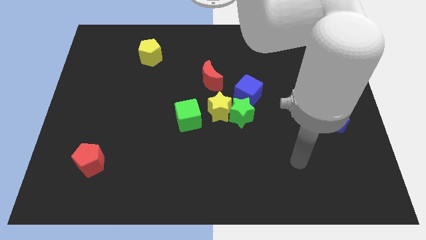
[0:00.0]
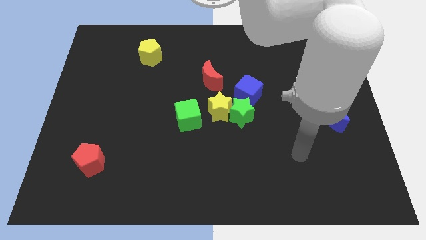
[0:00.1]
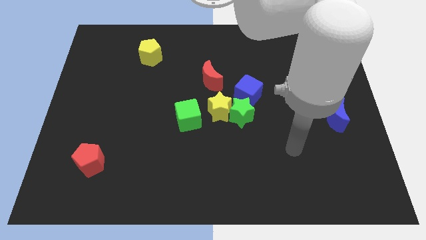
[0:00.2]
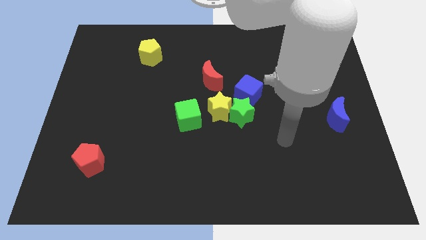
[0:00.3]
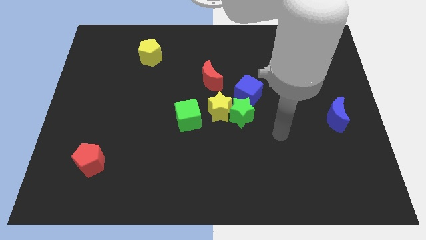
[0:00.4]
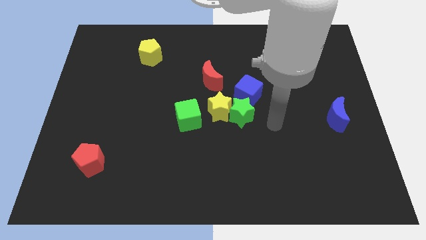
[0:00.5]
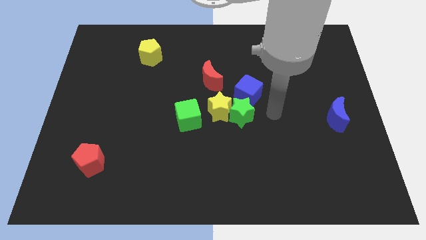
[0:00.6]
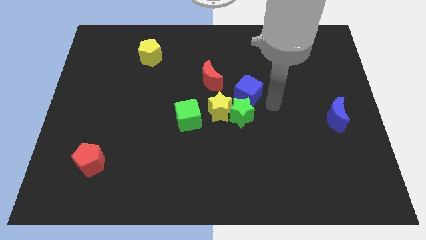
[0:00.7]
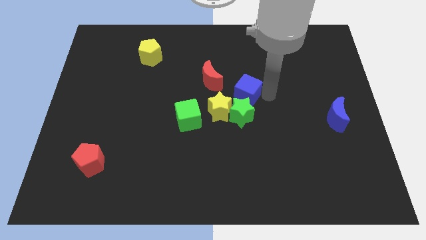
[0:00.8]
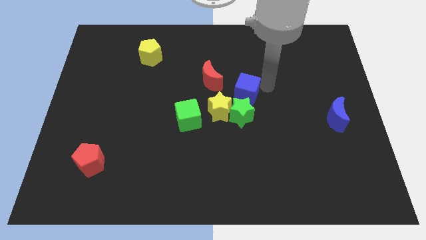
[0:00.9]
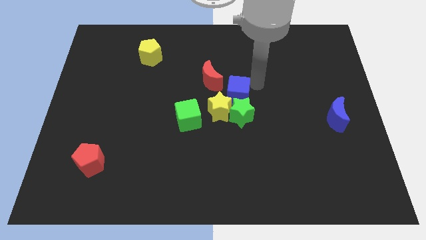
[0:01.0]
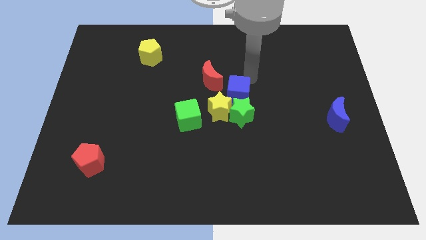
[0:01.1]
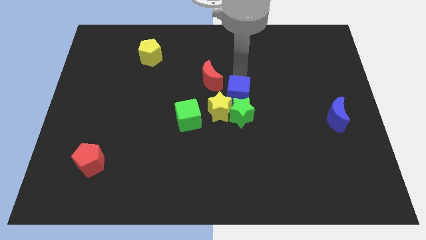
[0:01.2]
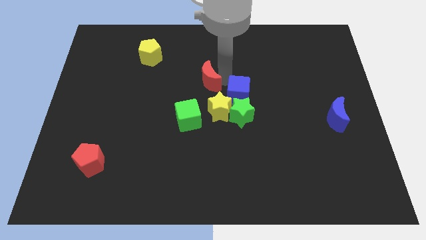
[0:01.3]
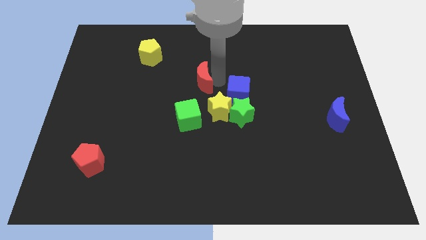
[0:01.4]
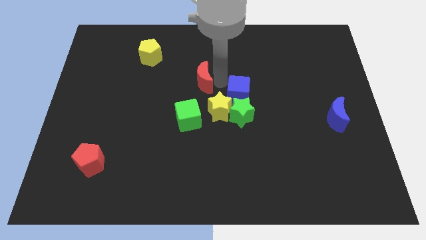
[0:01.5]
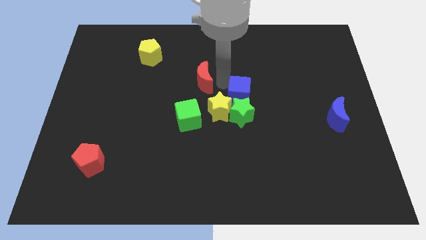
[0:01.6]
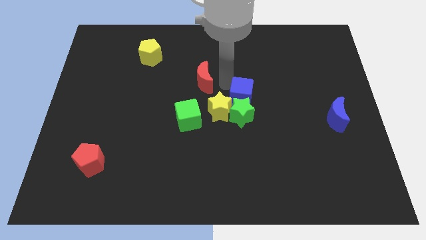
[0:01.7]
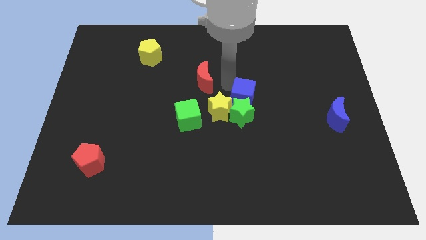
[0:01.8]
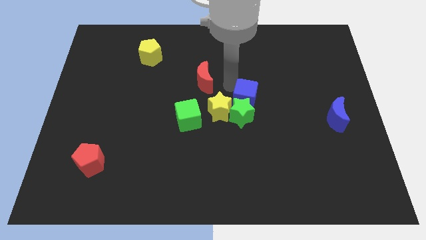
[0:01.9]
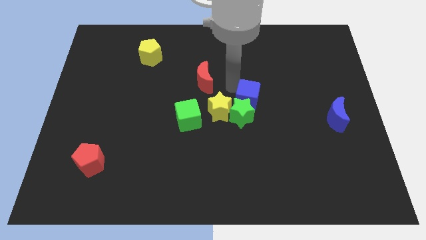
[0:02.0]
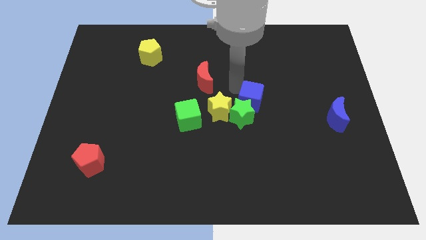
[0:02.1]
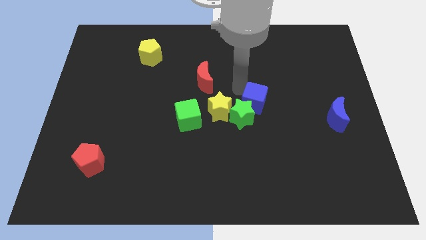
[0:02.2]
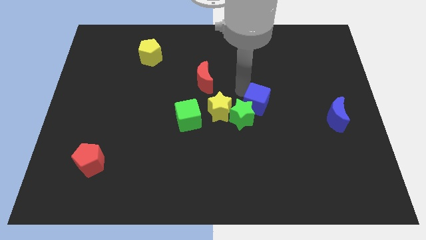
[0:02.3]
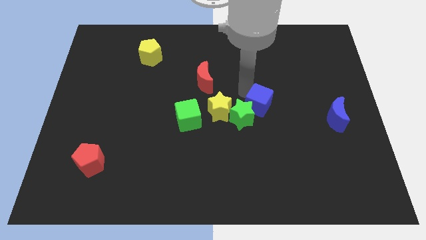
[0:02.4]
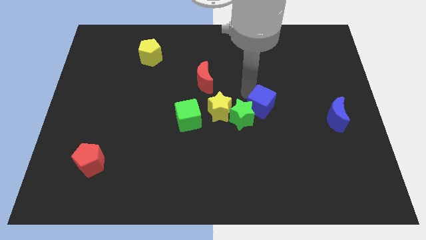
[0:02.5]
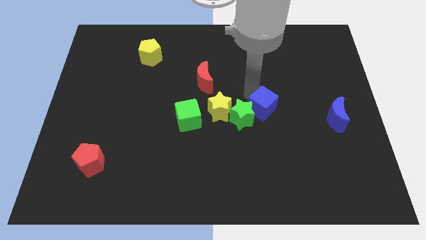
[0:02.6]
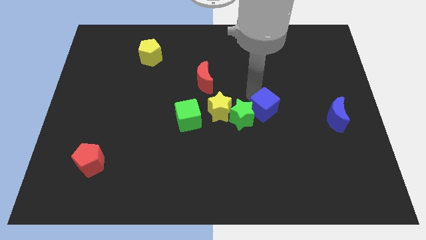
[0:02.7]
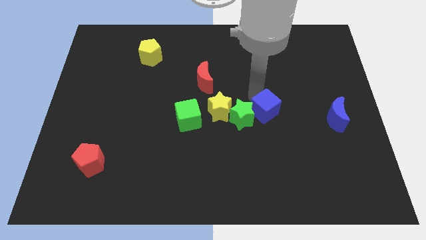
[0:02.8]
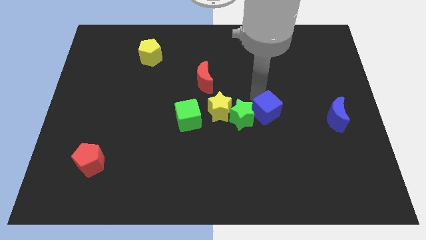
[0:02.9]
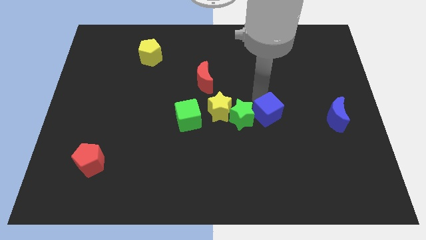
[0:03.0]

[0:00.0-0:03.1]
push the blue cube a bit downwards and to the right

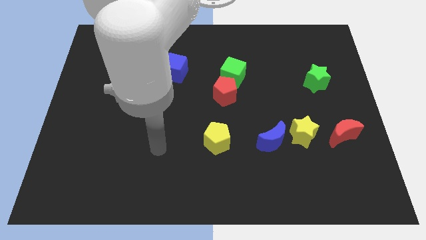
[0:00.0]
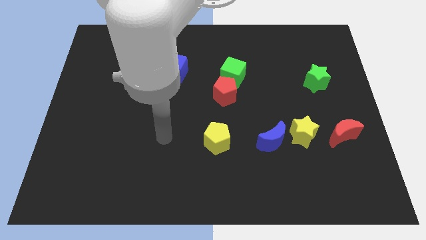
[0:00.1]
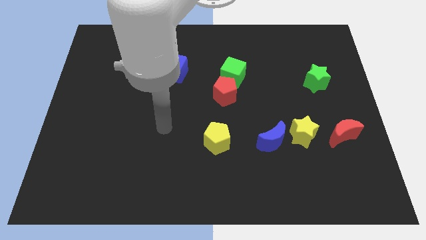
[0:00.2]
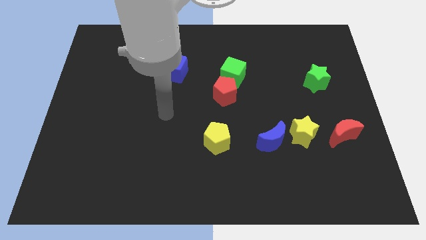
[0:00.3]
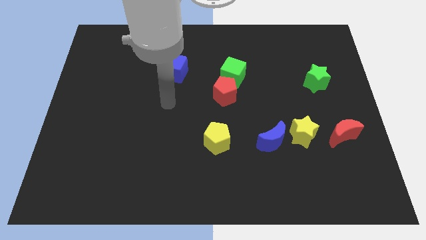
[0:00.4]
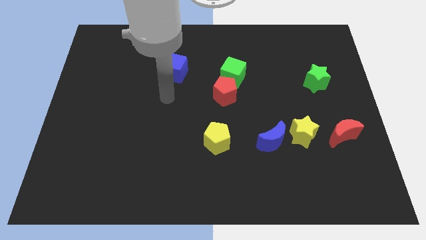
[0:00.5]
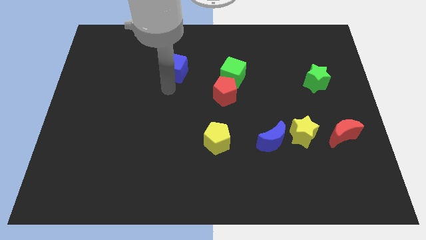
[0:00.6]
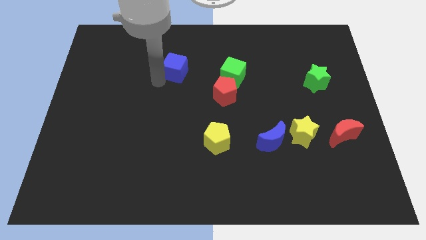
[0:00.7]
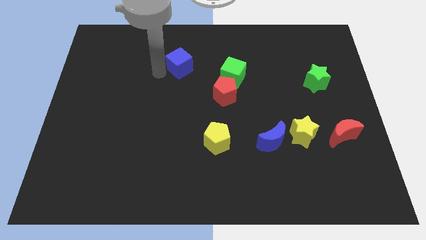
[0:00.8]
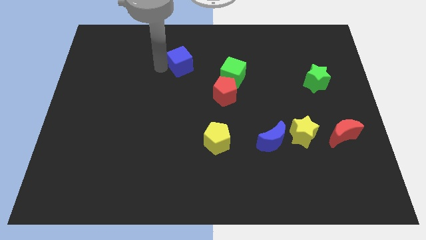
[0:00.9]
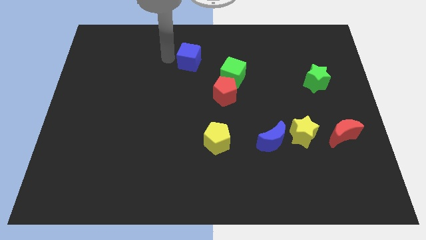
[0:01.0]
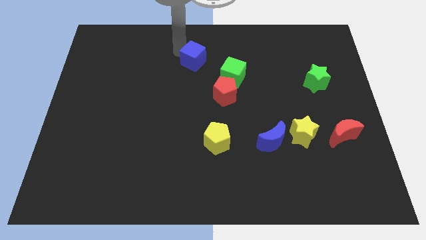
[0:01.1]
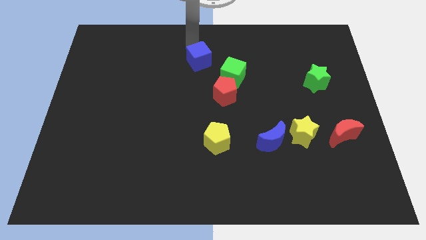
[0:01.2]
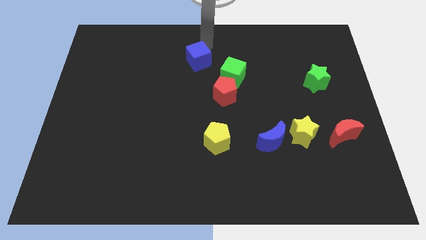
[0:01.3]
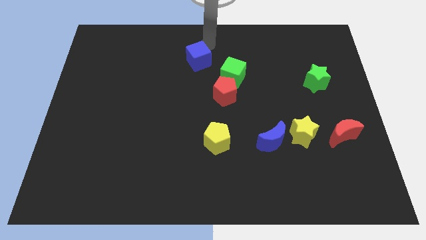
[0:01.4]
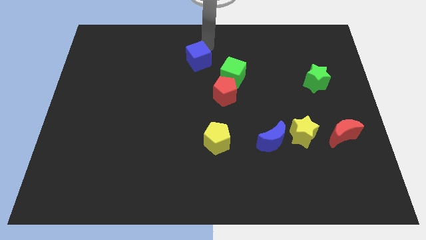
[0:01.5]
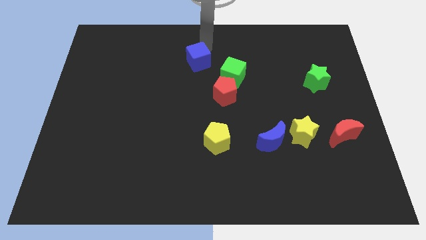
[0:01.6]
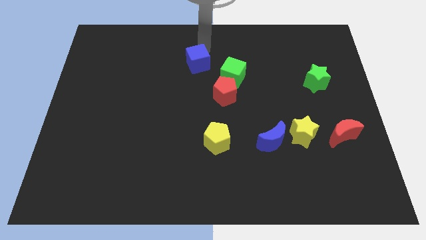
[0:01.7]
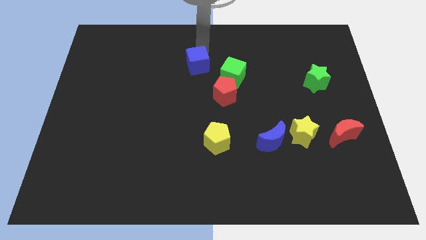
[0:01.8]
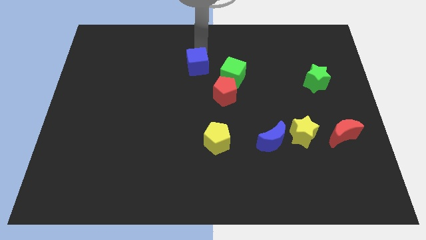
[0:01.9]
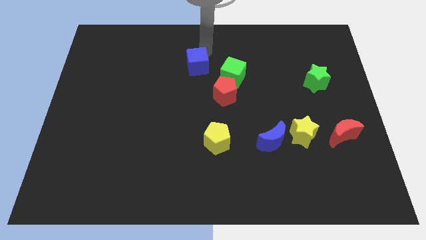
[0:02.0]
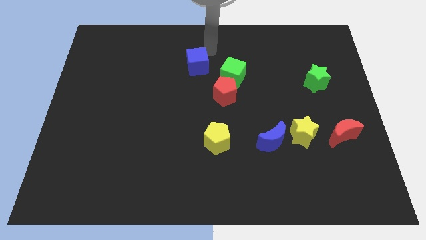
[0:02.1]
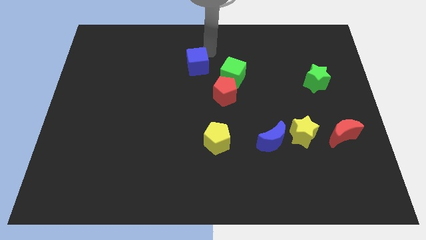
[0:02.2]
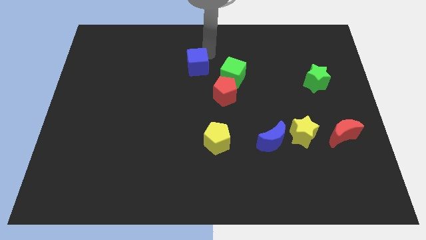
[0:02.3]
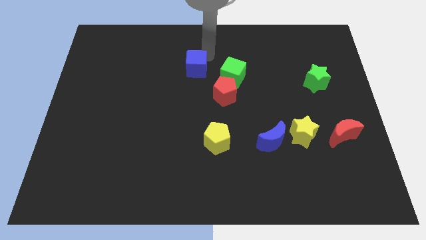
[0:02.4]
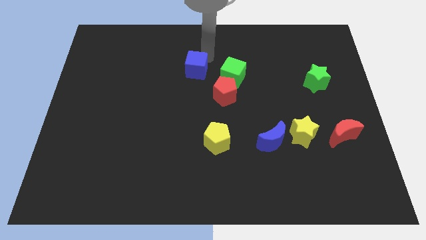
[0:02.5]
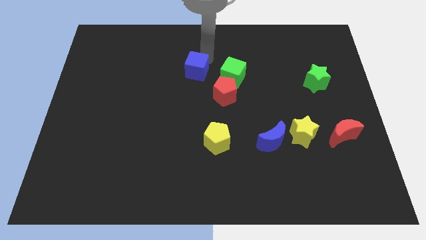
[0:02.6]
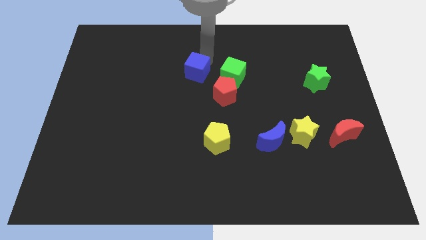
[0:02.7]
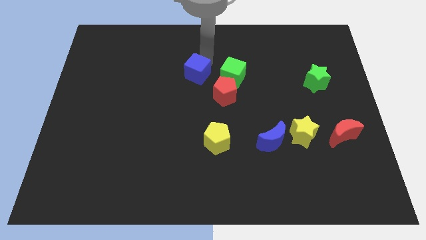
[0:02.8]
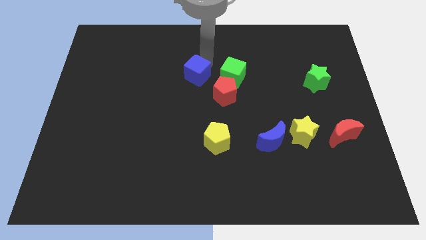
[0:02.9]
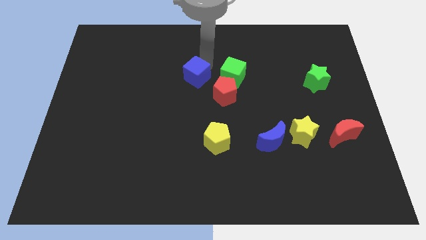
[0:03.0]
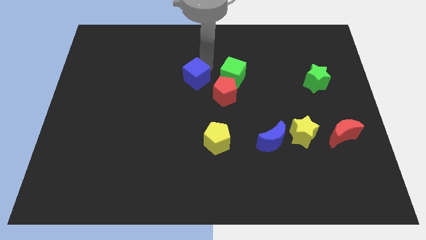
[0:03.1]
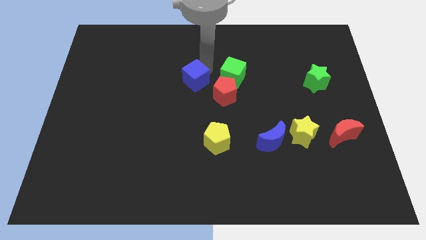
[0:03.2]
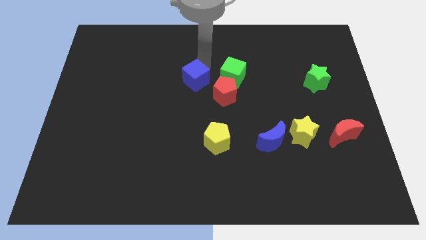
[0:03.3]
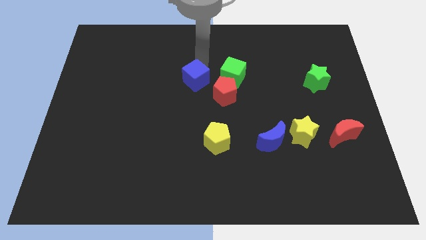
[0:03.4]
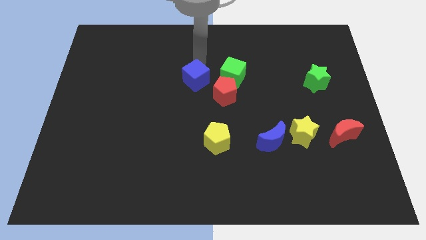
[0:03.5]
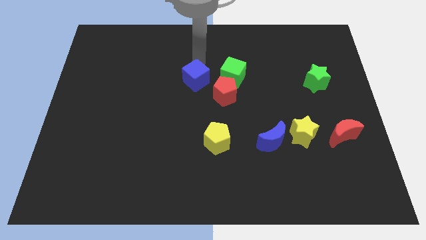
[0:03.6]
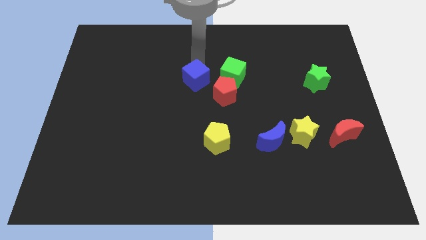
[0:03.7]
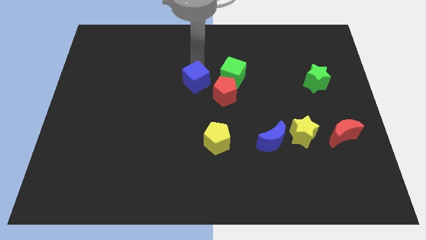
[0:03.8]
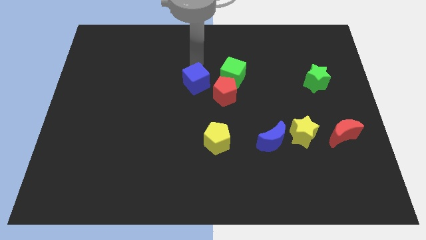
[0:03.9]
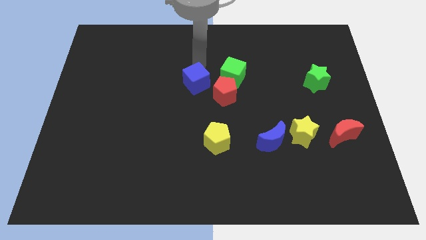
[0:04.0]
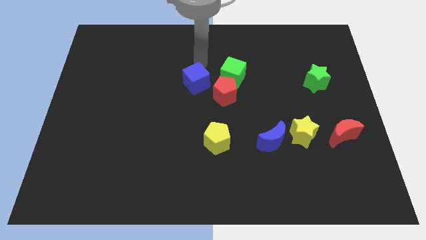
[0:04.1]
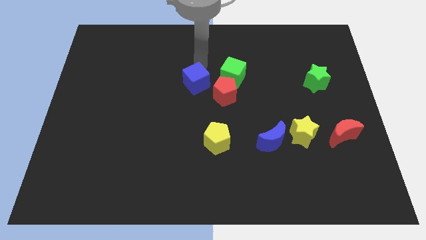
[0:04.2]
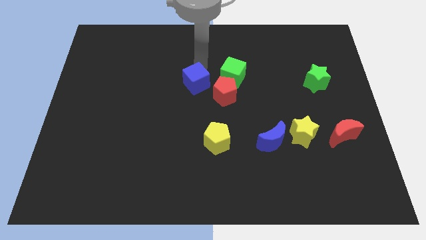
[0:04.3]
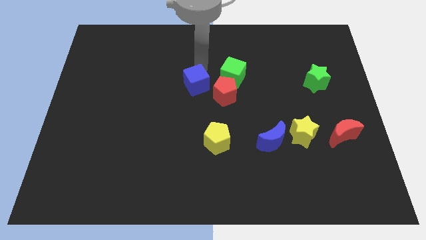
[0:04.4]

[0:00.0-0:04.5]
move the blue cube down and to the right diagonally a bit
